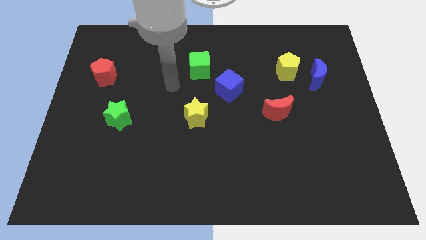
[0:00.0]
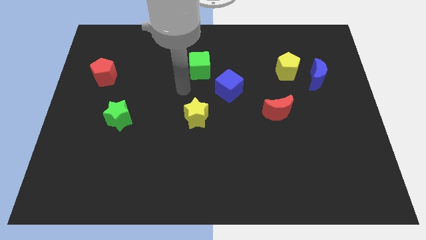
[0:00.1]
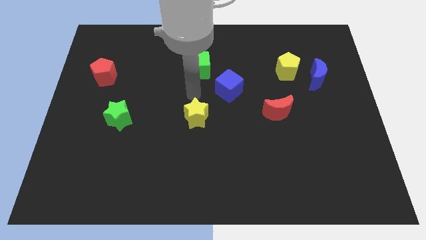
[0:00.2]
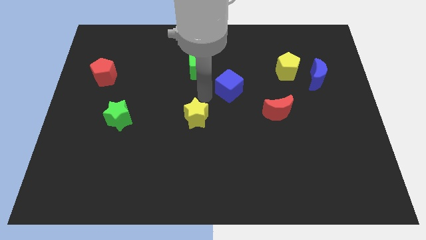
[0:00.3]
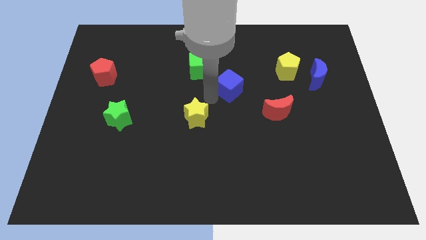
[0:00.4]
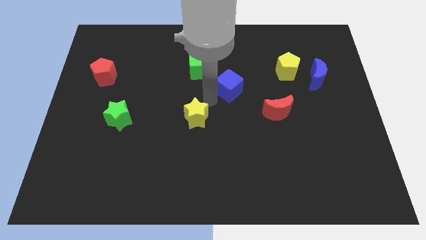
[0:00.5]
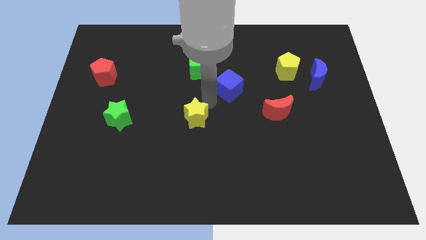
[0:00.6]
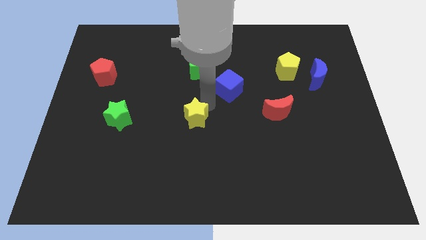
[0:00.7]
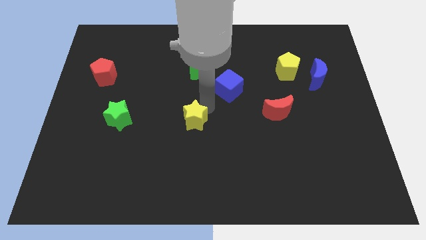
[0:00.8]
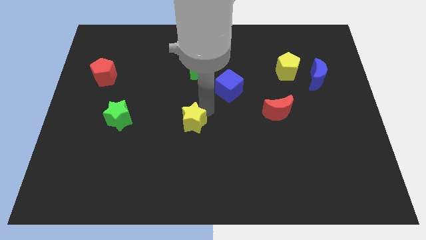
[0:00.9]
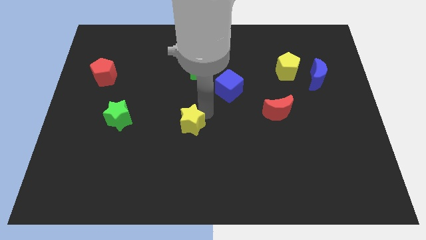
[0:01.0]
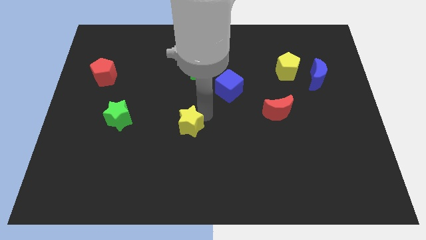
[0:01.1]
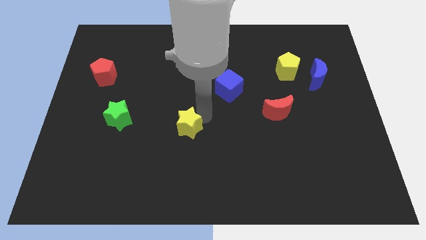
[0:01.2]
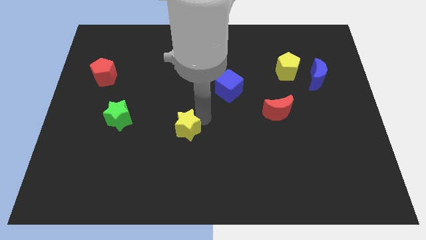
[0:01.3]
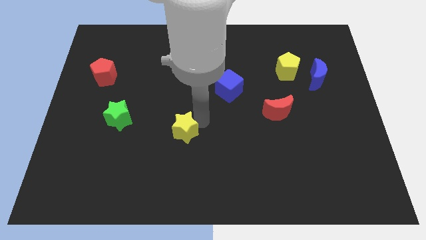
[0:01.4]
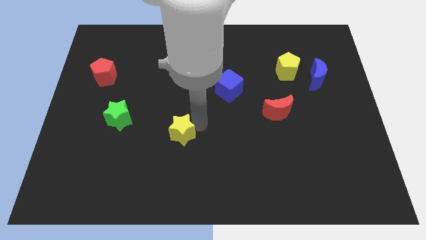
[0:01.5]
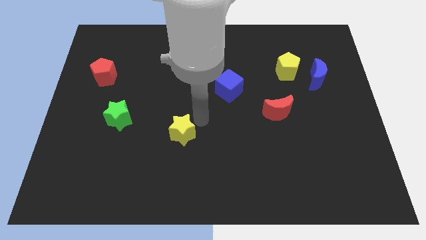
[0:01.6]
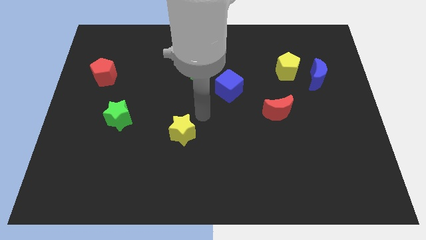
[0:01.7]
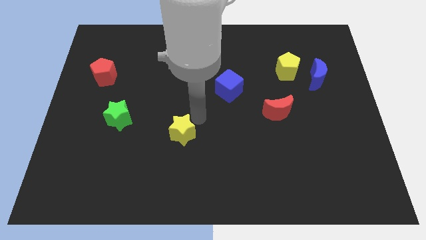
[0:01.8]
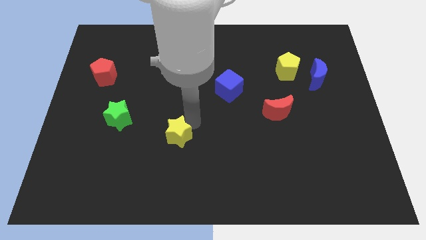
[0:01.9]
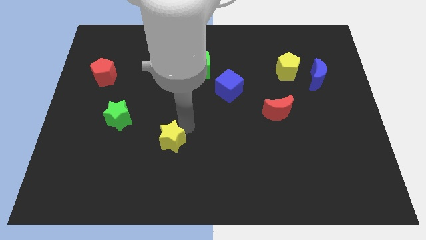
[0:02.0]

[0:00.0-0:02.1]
slightly slide the yellow star downwards and to the left

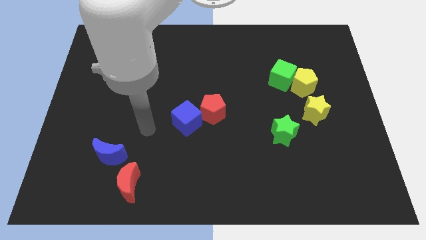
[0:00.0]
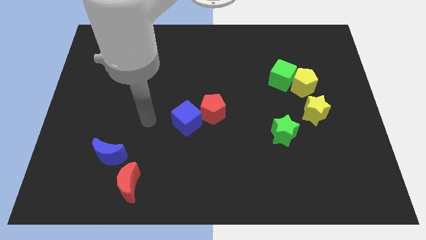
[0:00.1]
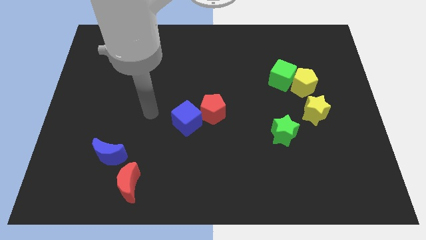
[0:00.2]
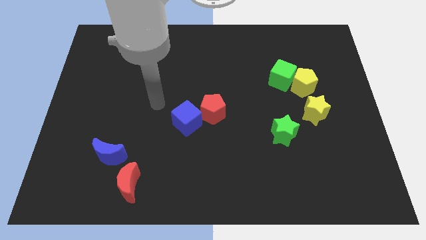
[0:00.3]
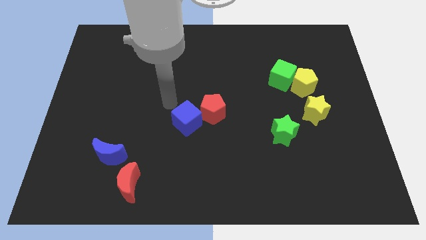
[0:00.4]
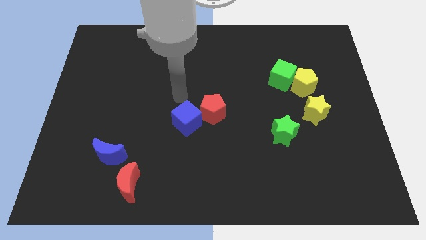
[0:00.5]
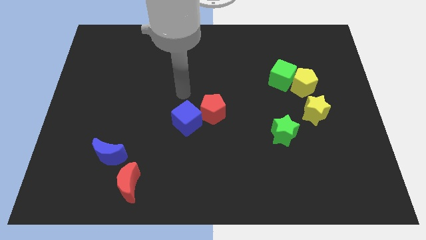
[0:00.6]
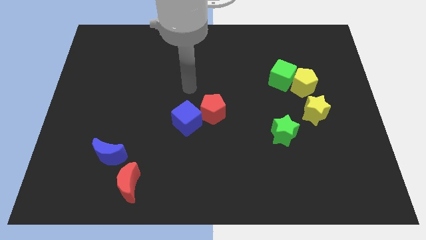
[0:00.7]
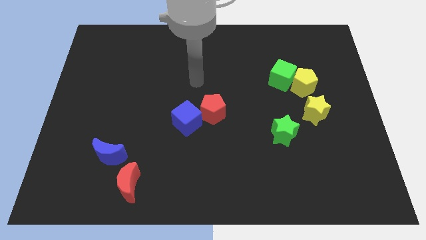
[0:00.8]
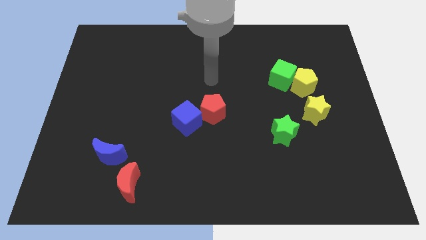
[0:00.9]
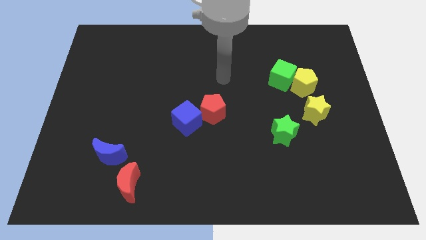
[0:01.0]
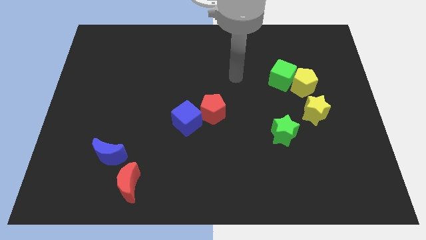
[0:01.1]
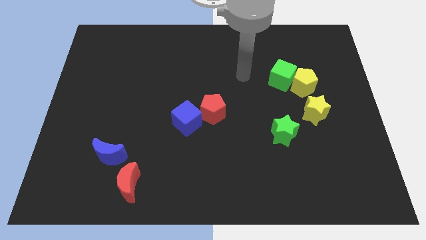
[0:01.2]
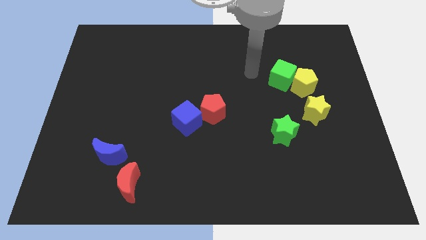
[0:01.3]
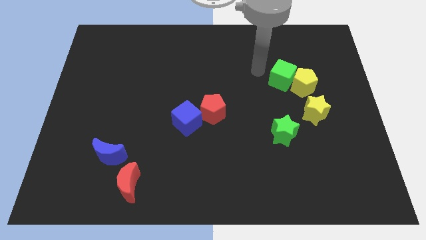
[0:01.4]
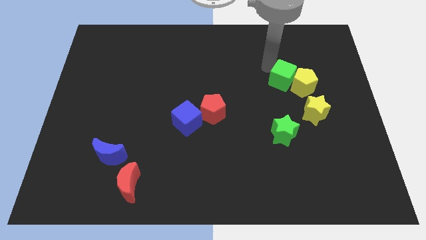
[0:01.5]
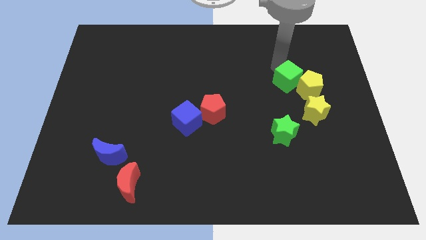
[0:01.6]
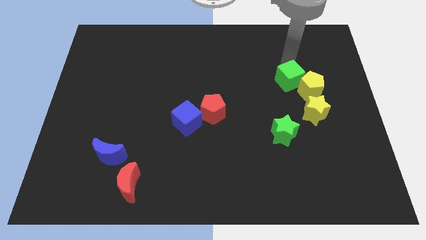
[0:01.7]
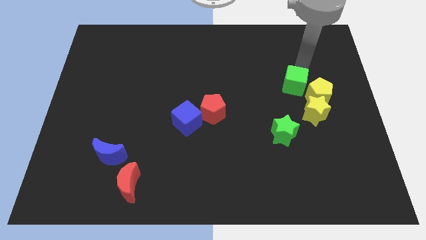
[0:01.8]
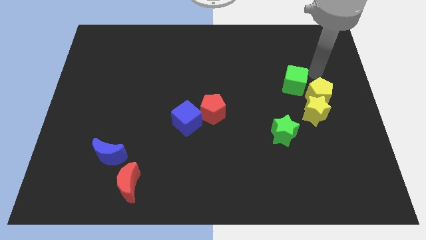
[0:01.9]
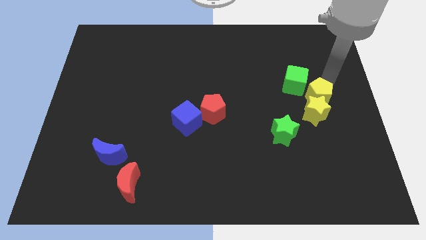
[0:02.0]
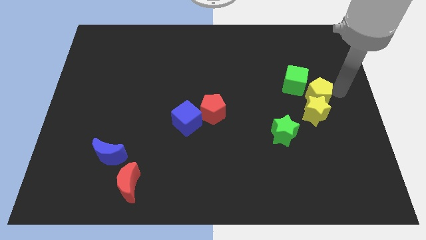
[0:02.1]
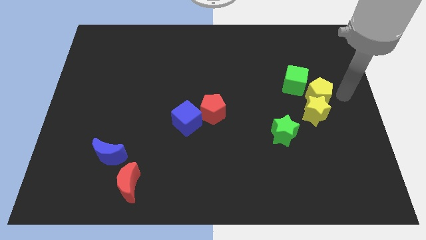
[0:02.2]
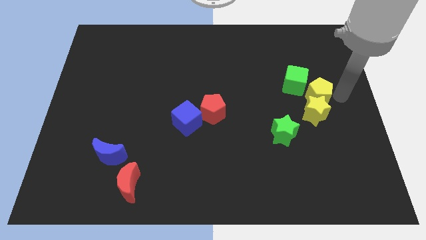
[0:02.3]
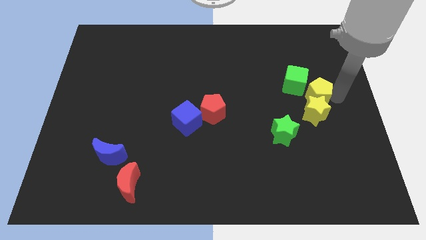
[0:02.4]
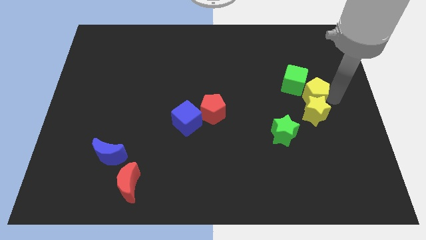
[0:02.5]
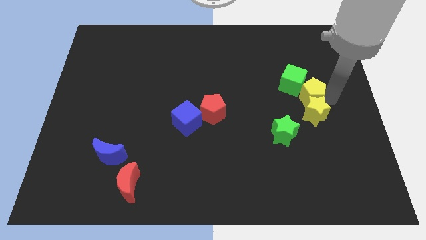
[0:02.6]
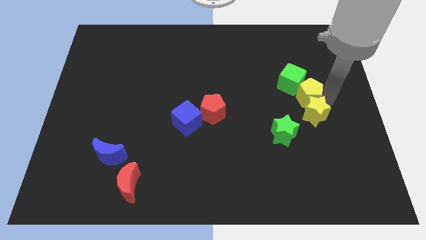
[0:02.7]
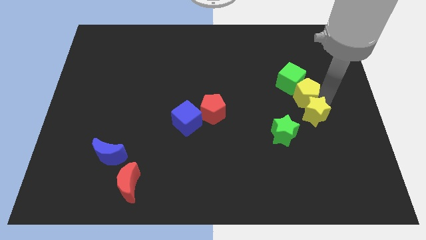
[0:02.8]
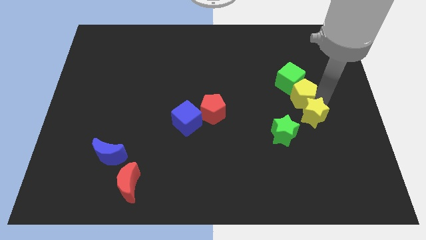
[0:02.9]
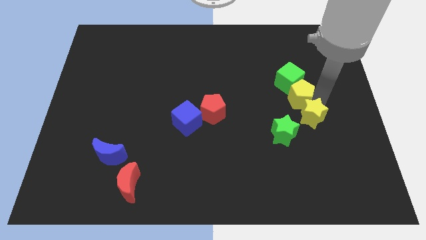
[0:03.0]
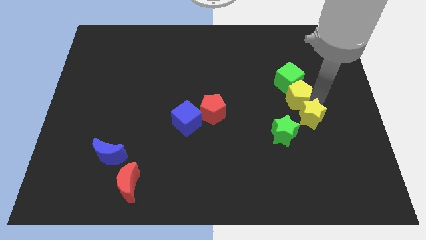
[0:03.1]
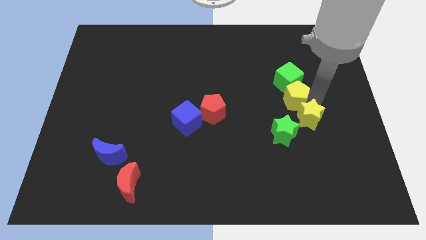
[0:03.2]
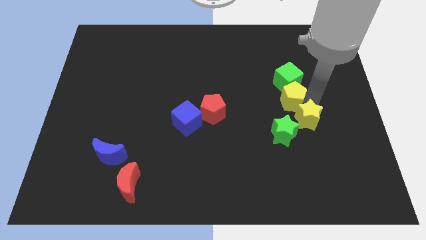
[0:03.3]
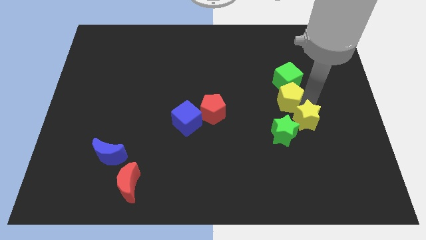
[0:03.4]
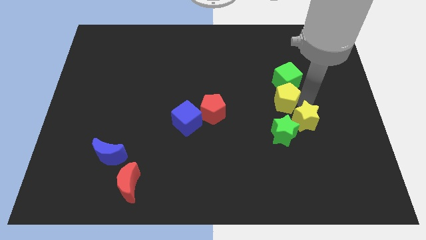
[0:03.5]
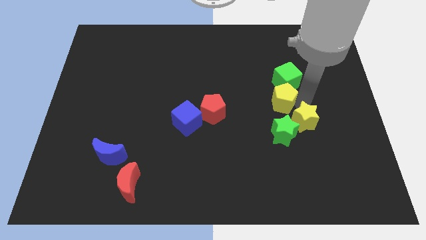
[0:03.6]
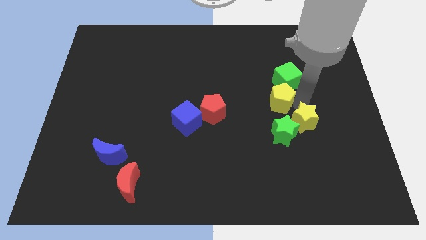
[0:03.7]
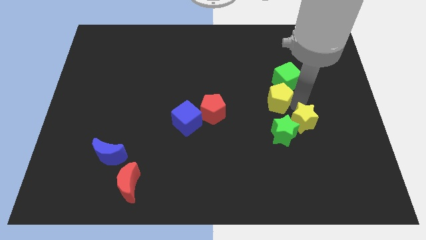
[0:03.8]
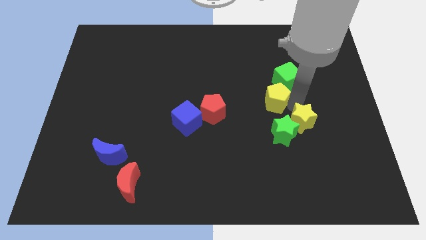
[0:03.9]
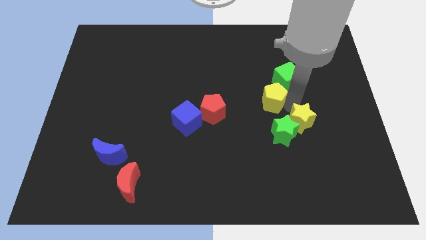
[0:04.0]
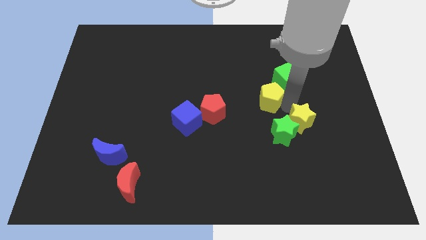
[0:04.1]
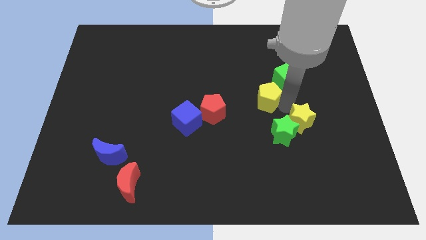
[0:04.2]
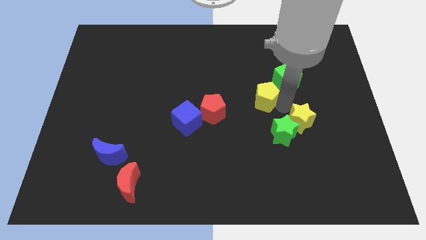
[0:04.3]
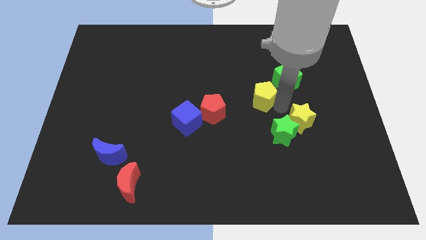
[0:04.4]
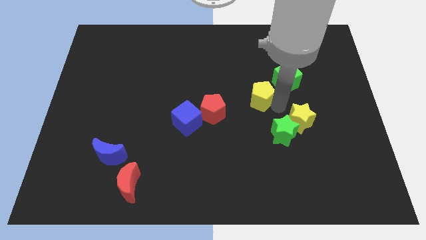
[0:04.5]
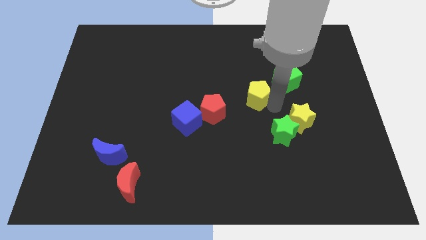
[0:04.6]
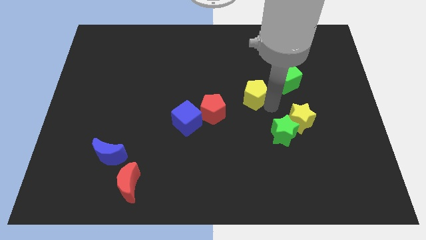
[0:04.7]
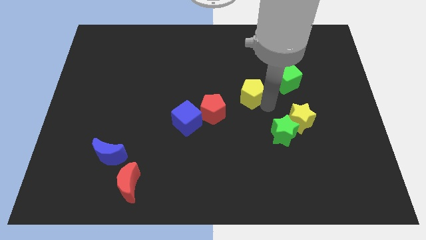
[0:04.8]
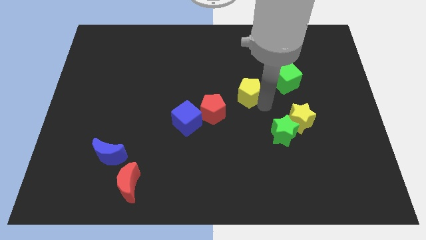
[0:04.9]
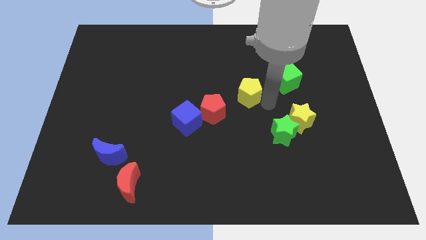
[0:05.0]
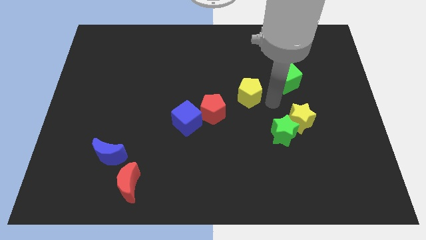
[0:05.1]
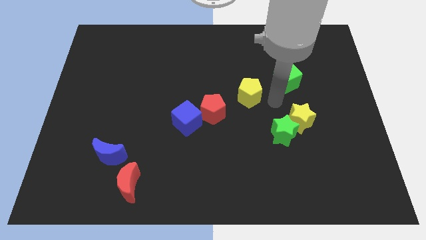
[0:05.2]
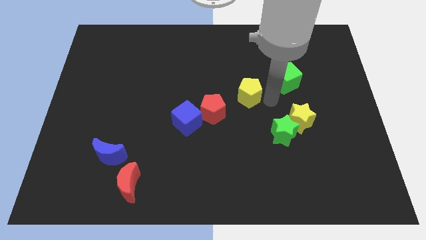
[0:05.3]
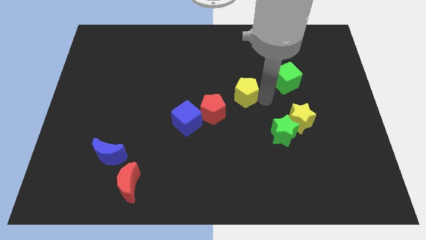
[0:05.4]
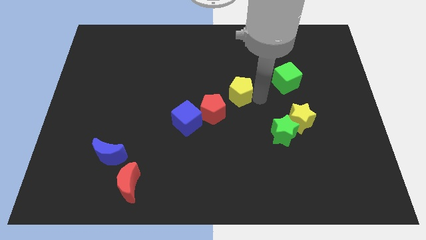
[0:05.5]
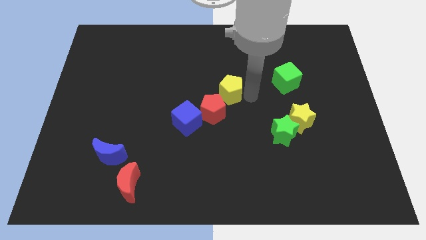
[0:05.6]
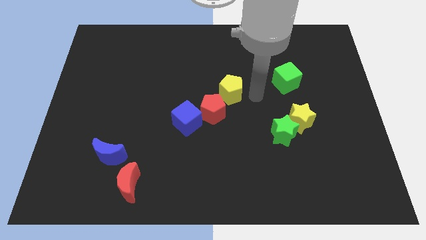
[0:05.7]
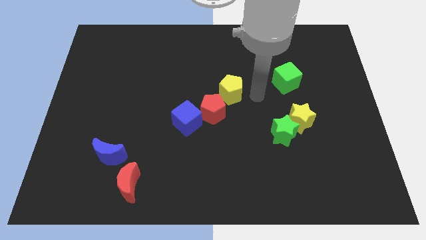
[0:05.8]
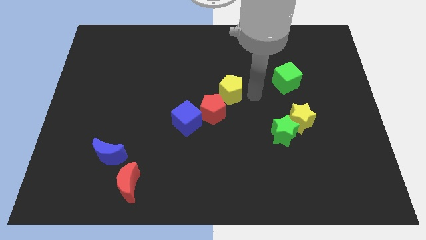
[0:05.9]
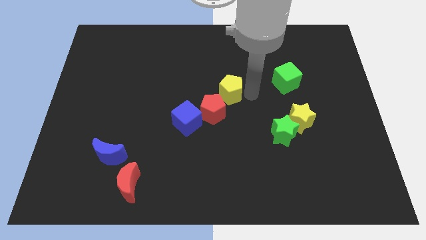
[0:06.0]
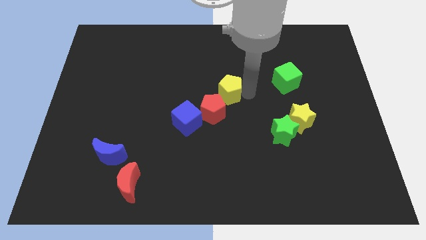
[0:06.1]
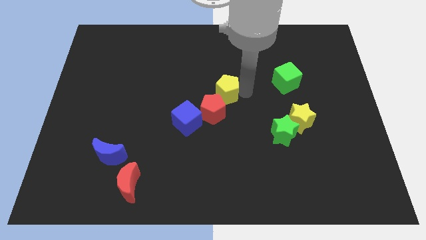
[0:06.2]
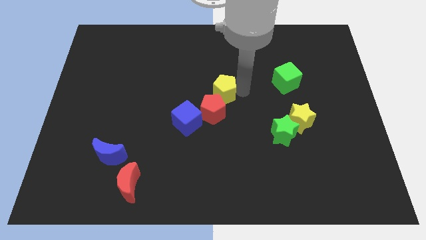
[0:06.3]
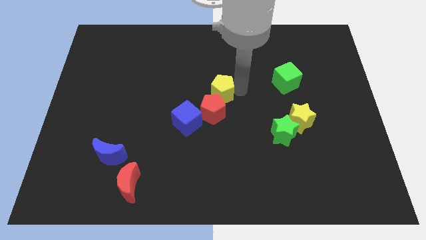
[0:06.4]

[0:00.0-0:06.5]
push the yellow pentagon left
